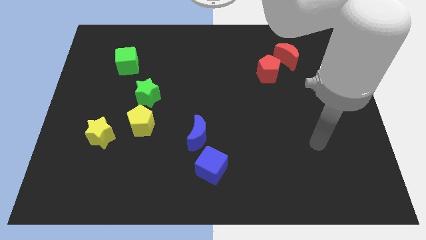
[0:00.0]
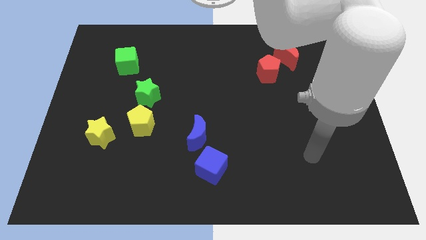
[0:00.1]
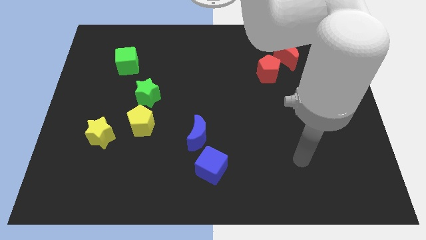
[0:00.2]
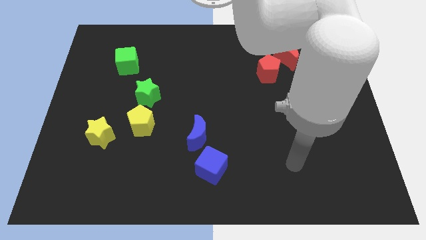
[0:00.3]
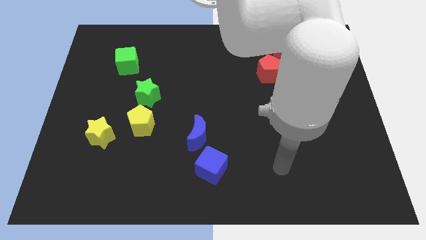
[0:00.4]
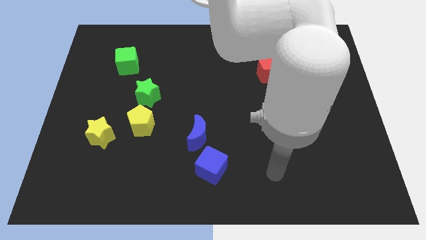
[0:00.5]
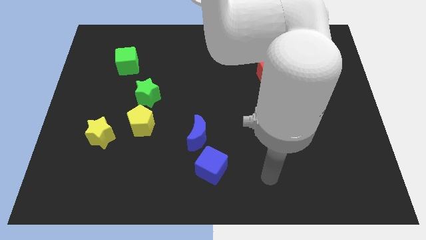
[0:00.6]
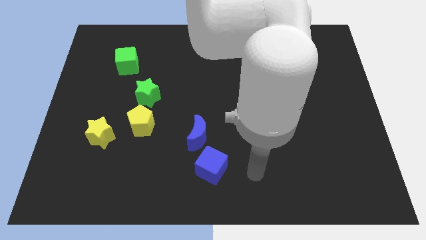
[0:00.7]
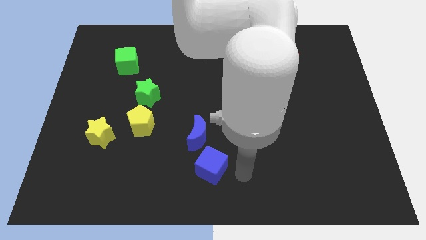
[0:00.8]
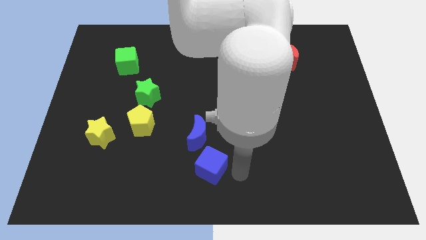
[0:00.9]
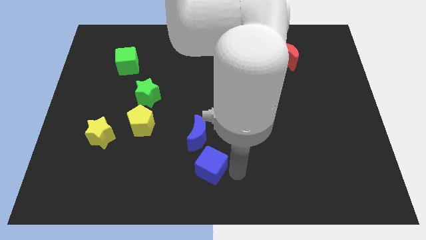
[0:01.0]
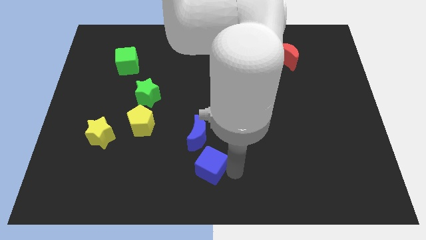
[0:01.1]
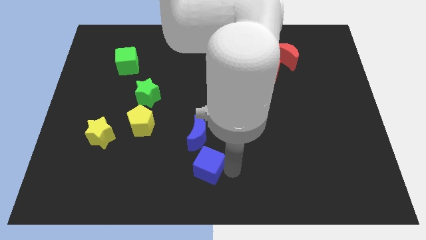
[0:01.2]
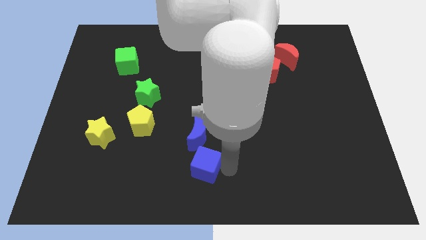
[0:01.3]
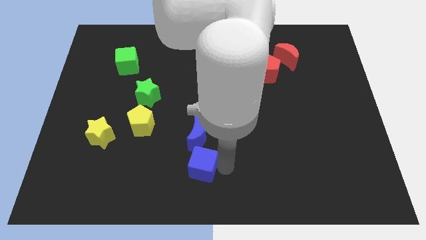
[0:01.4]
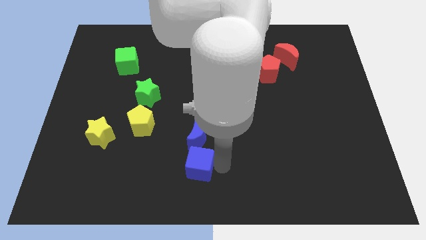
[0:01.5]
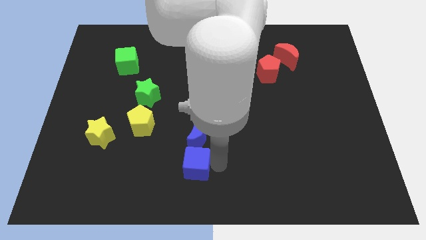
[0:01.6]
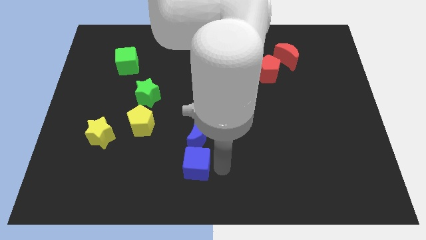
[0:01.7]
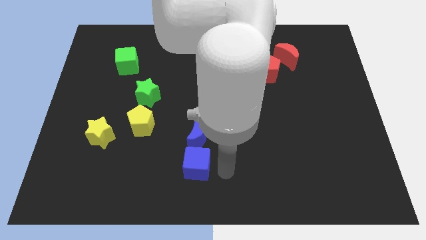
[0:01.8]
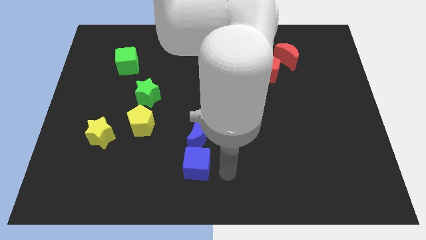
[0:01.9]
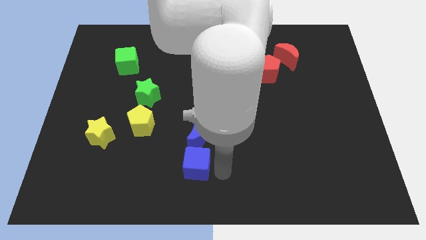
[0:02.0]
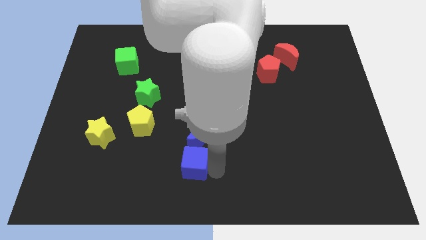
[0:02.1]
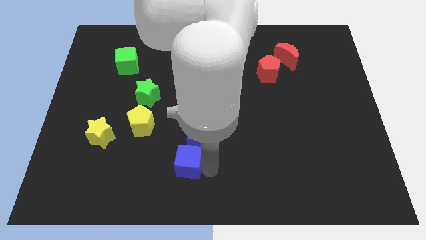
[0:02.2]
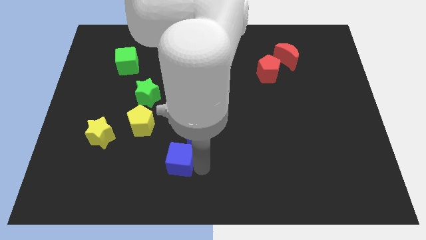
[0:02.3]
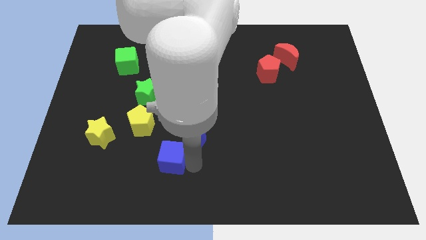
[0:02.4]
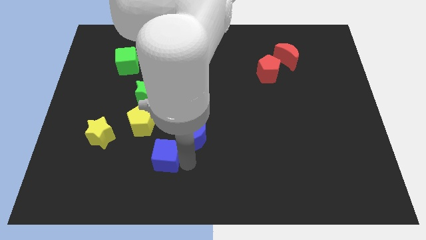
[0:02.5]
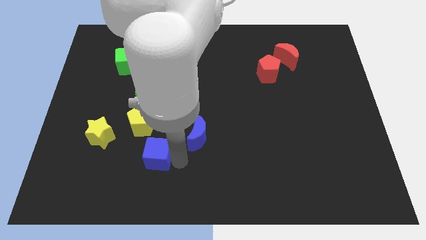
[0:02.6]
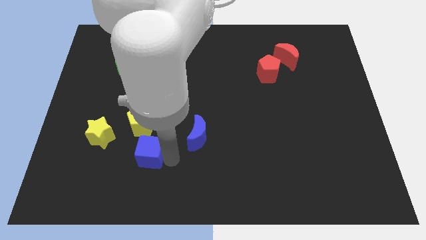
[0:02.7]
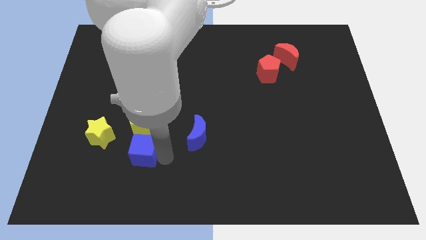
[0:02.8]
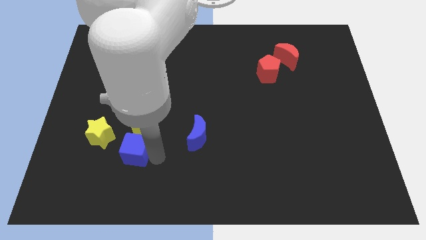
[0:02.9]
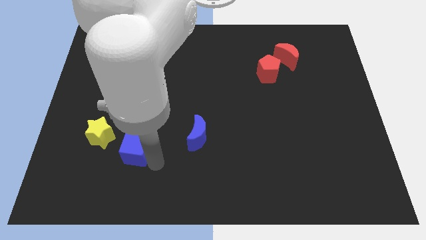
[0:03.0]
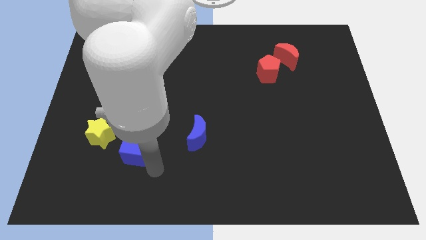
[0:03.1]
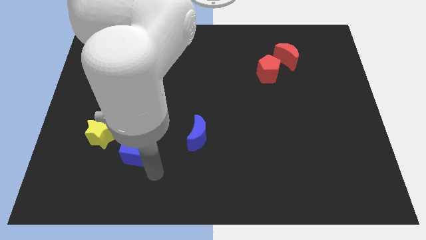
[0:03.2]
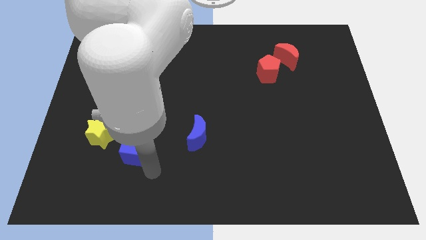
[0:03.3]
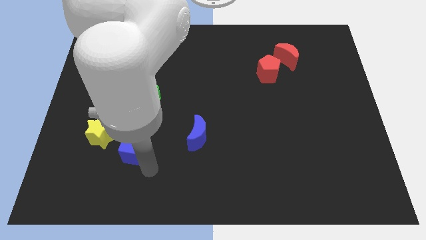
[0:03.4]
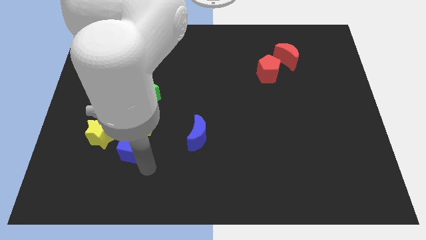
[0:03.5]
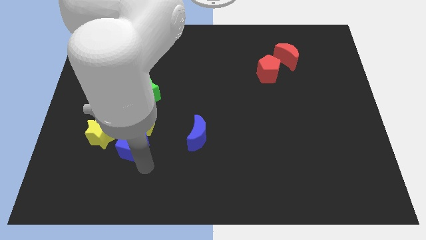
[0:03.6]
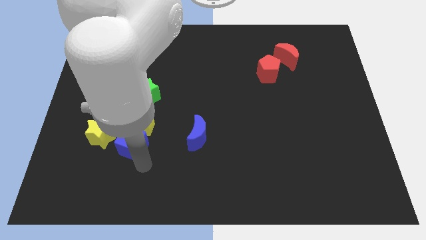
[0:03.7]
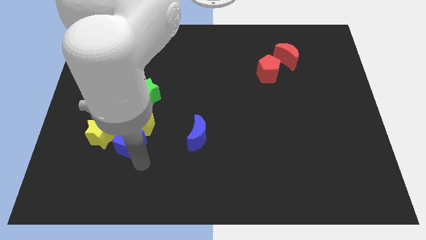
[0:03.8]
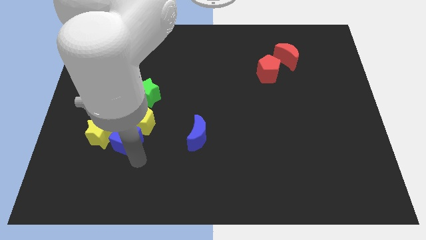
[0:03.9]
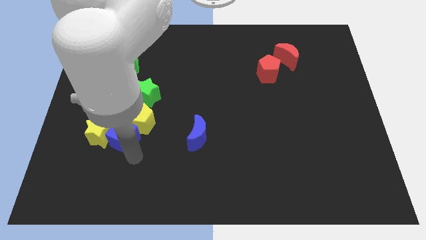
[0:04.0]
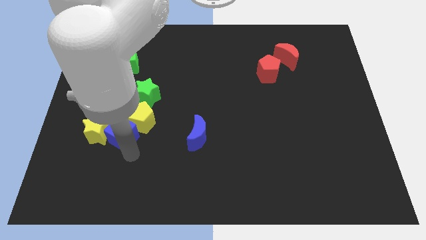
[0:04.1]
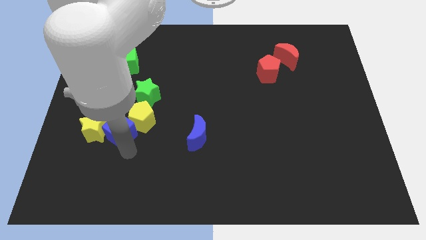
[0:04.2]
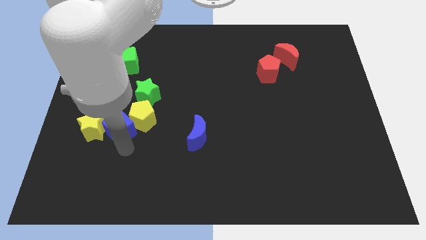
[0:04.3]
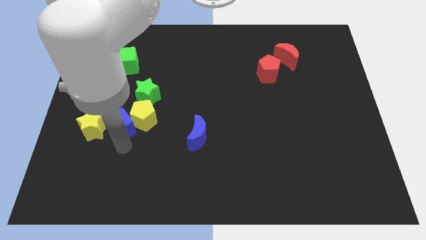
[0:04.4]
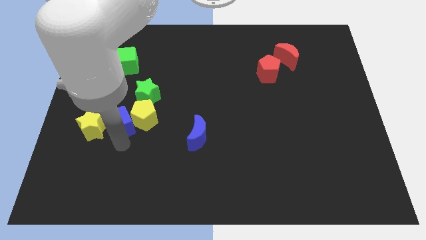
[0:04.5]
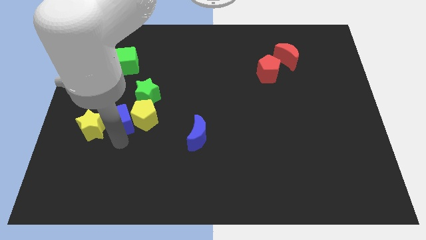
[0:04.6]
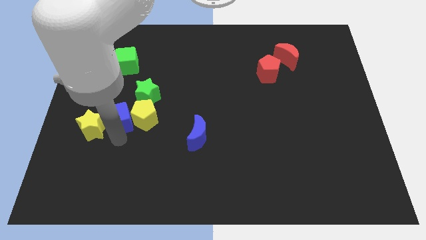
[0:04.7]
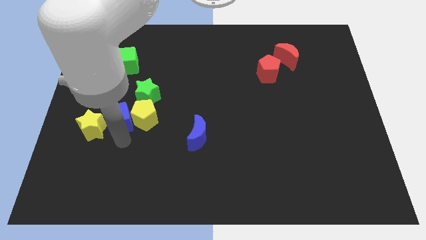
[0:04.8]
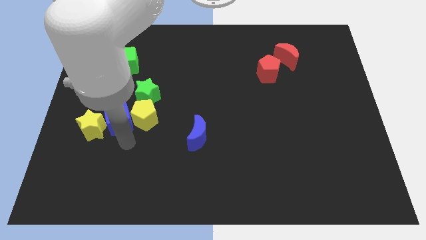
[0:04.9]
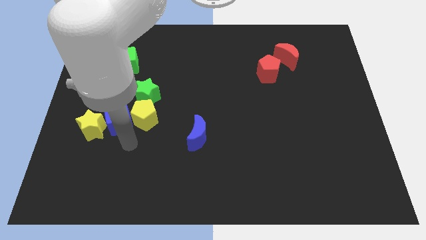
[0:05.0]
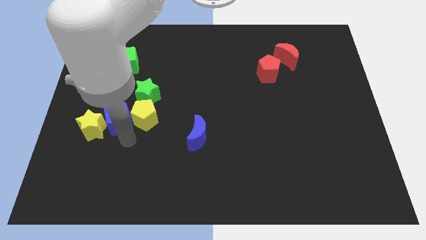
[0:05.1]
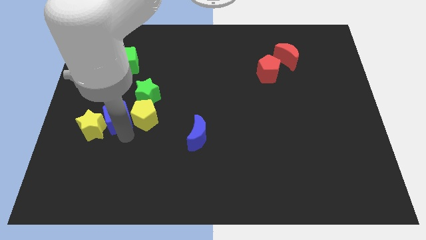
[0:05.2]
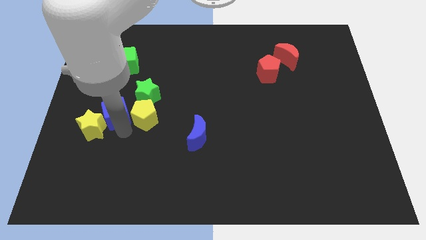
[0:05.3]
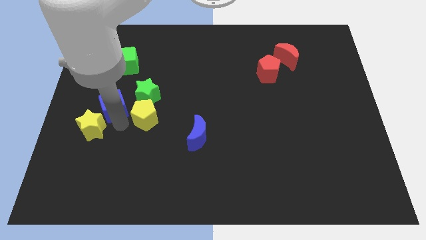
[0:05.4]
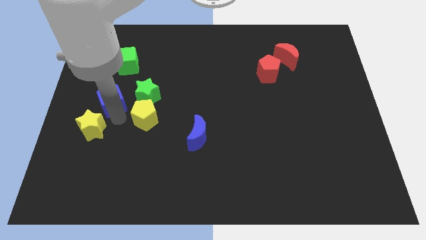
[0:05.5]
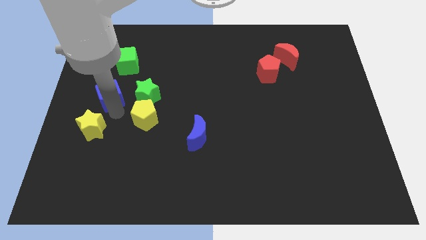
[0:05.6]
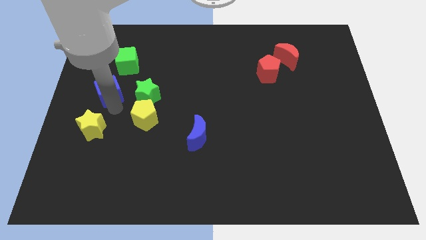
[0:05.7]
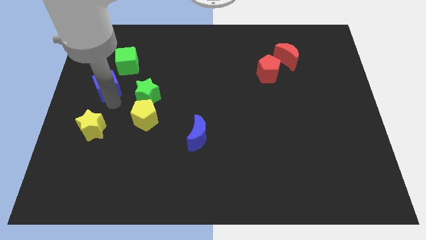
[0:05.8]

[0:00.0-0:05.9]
put the blue cube to the bottom left of the green cube

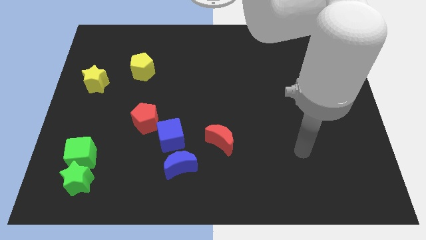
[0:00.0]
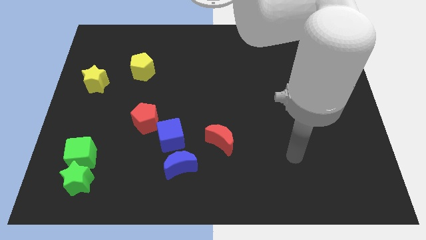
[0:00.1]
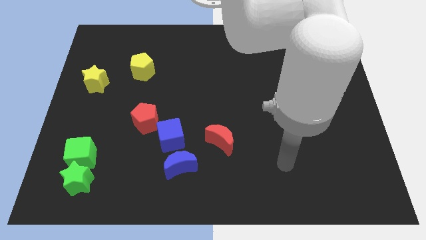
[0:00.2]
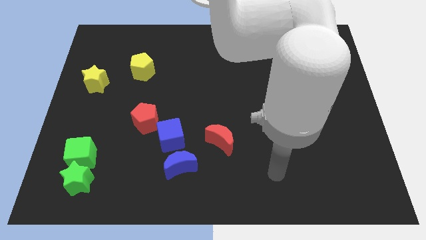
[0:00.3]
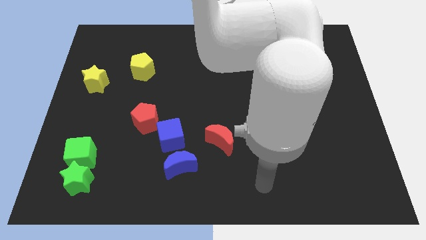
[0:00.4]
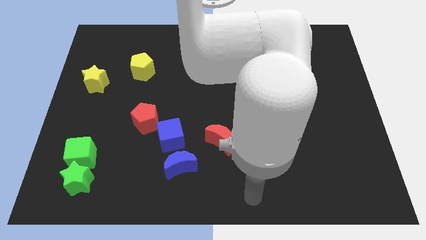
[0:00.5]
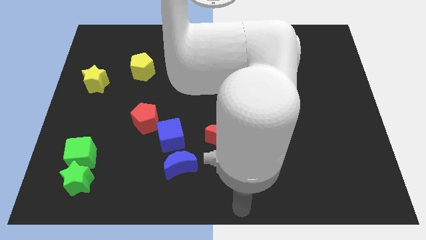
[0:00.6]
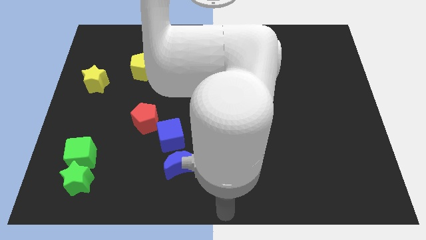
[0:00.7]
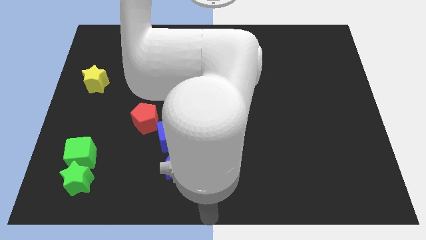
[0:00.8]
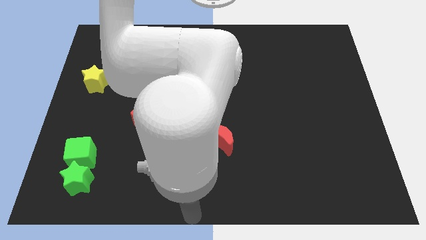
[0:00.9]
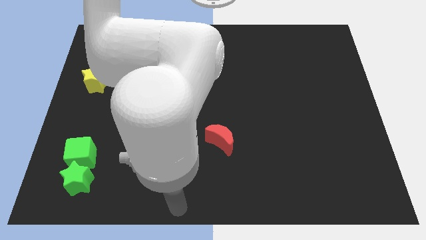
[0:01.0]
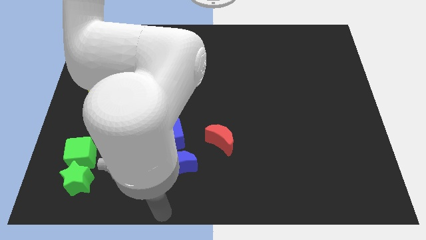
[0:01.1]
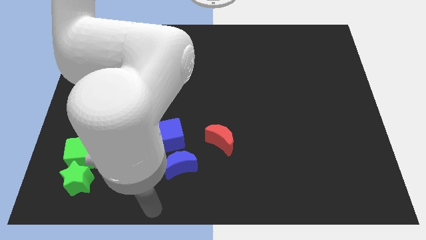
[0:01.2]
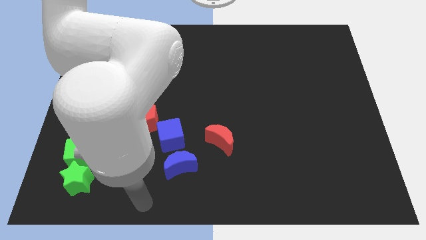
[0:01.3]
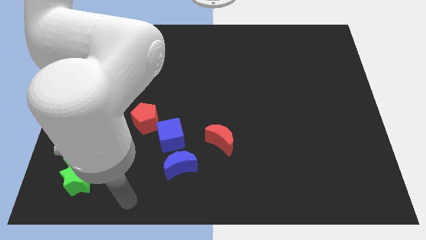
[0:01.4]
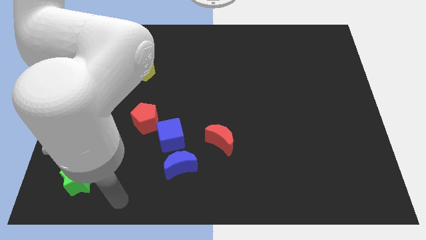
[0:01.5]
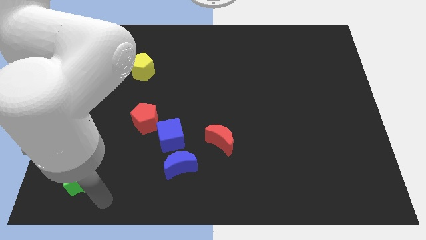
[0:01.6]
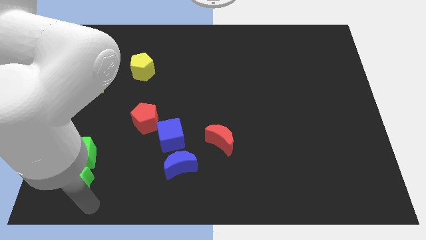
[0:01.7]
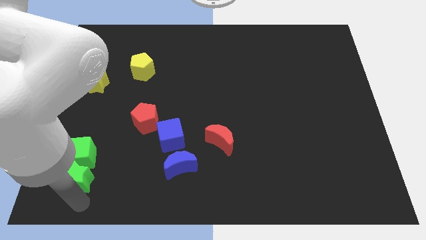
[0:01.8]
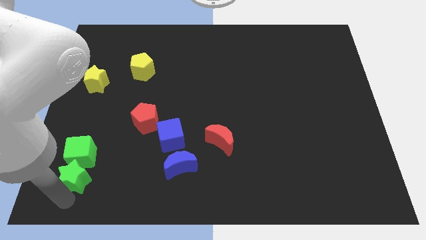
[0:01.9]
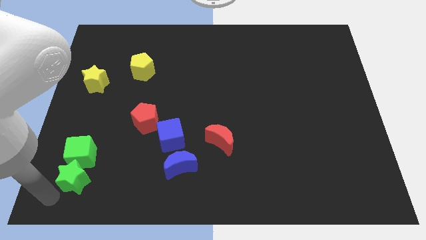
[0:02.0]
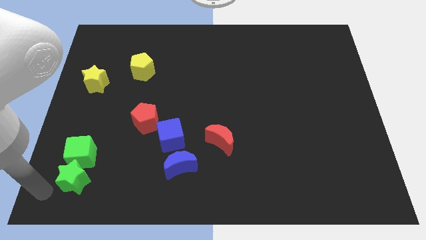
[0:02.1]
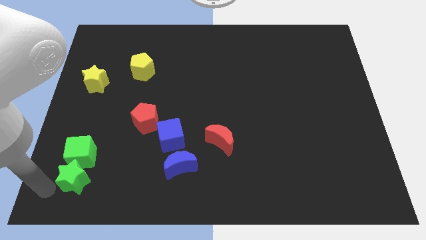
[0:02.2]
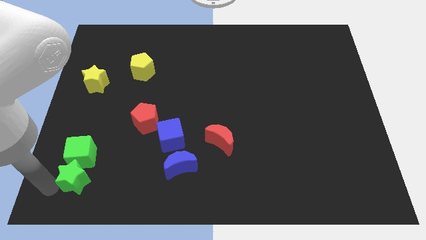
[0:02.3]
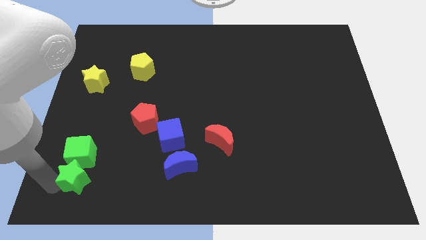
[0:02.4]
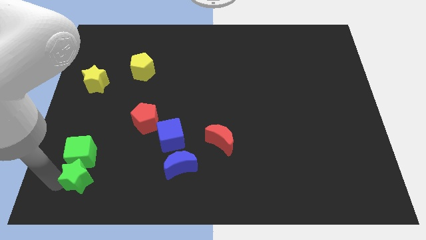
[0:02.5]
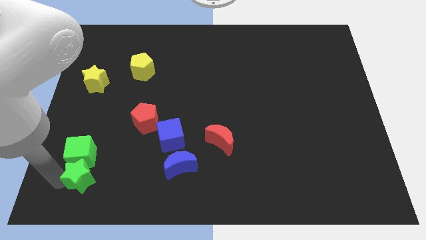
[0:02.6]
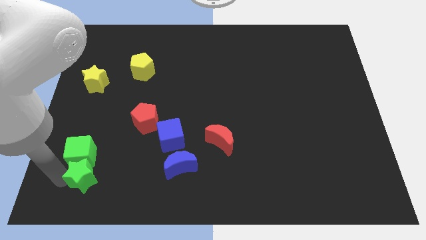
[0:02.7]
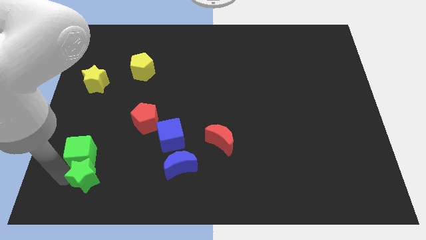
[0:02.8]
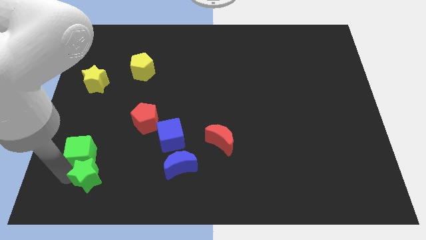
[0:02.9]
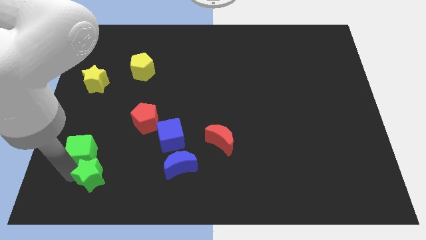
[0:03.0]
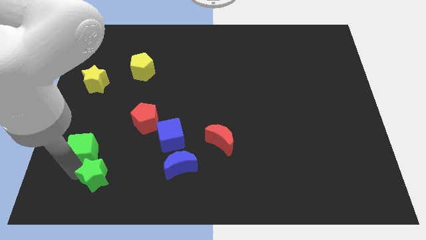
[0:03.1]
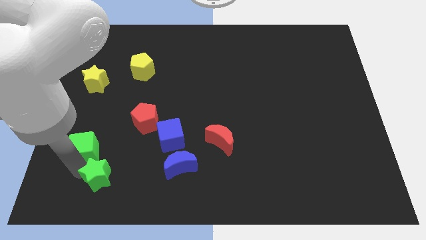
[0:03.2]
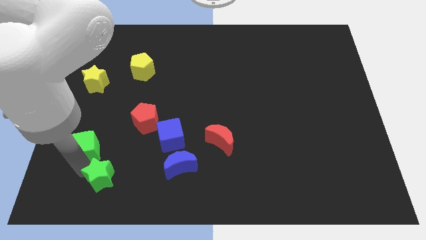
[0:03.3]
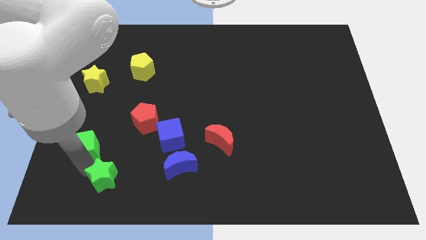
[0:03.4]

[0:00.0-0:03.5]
move the green star left of the blue moon
